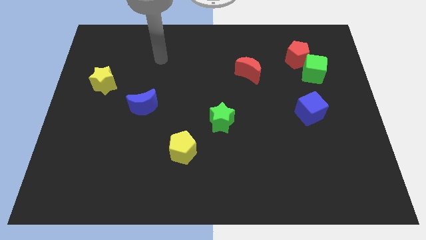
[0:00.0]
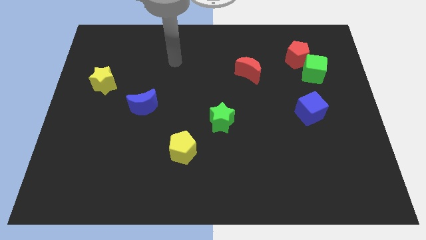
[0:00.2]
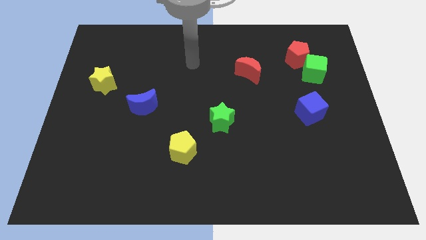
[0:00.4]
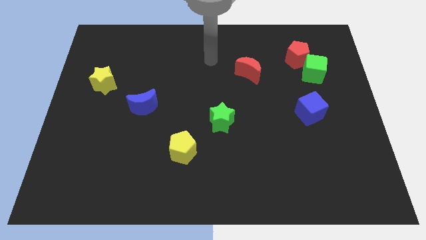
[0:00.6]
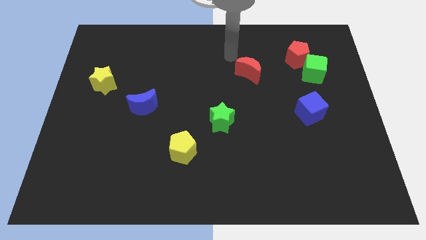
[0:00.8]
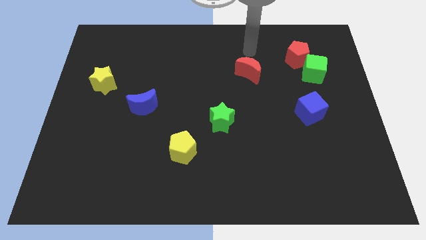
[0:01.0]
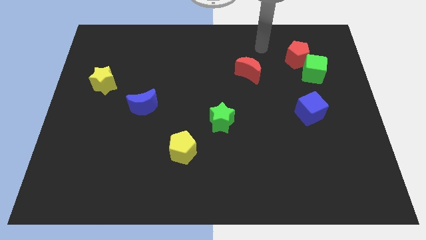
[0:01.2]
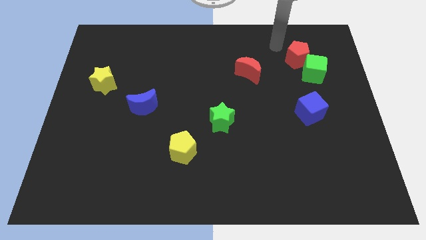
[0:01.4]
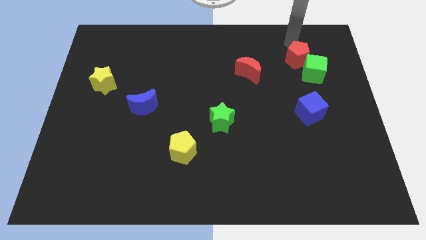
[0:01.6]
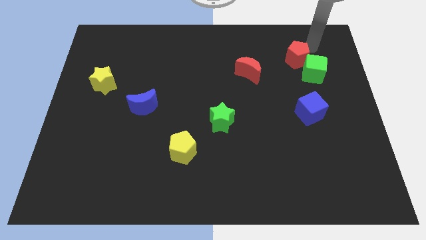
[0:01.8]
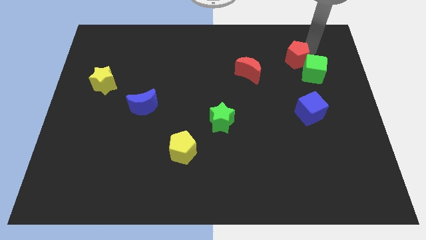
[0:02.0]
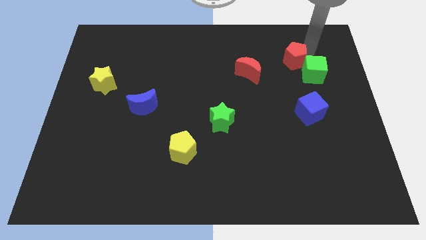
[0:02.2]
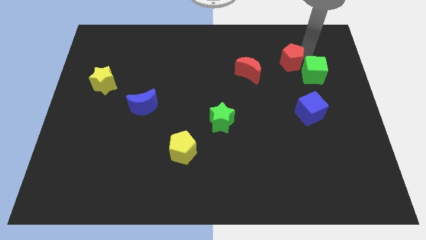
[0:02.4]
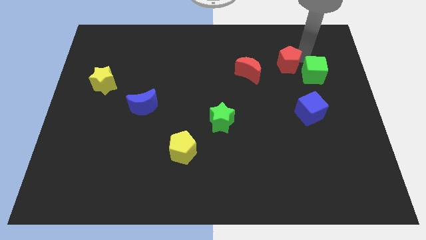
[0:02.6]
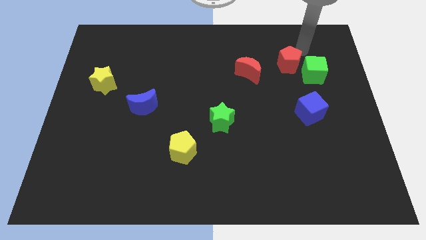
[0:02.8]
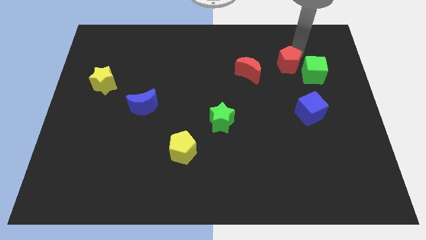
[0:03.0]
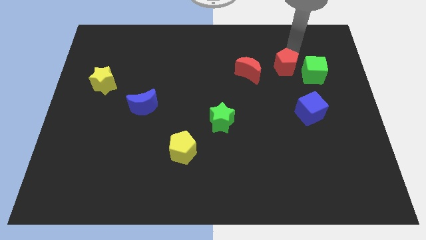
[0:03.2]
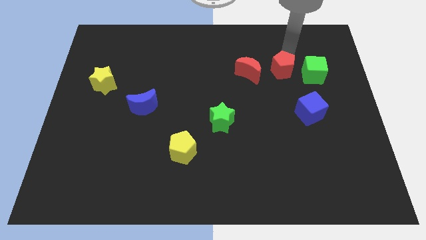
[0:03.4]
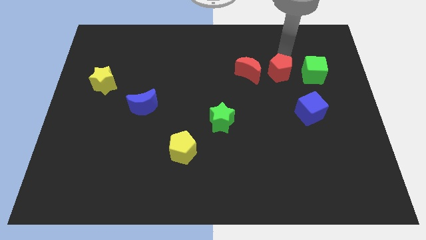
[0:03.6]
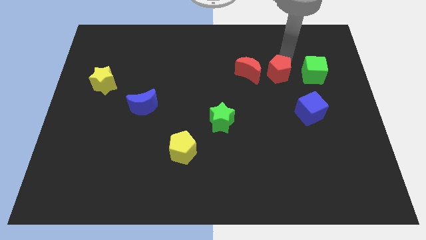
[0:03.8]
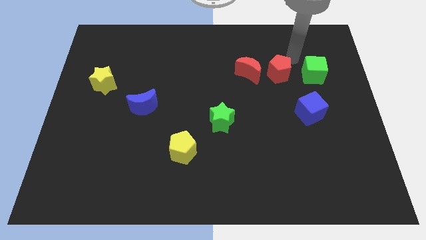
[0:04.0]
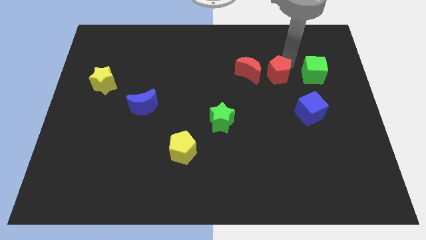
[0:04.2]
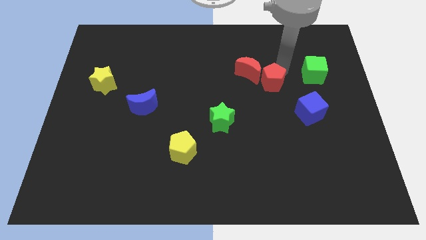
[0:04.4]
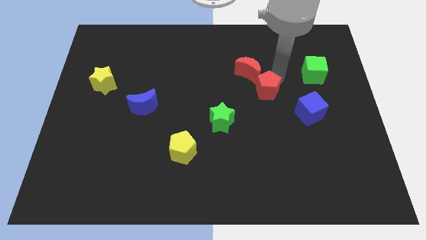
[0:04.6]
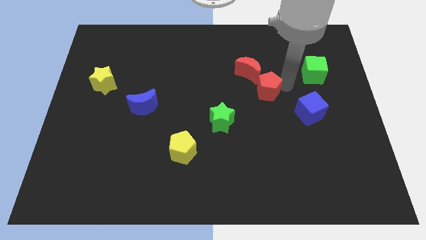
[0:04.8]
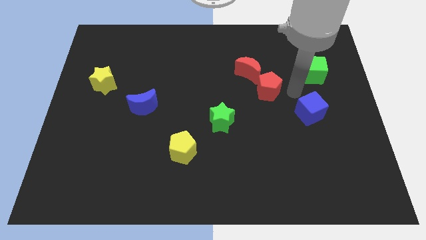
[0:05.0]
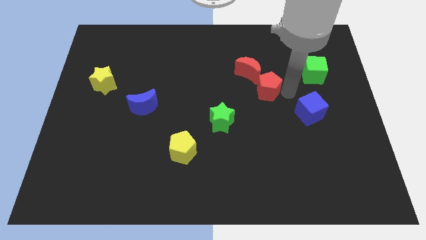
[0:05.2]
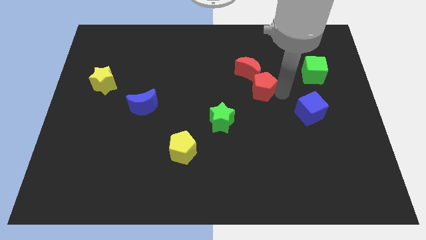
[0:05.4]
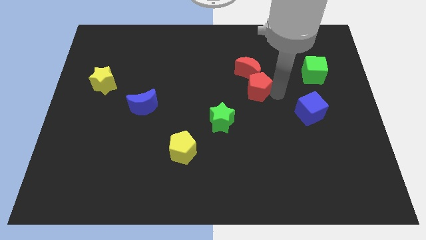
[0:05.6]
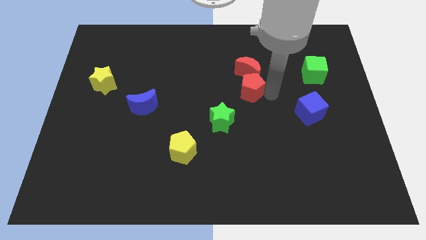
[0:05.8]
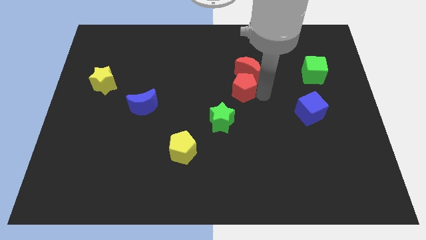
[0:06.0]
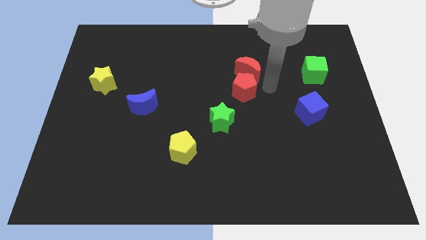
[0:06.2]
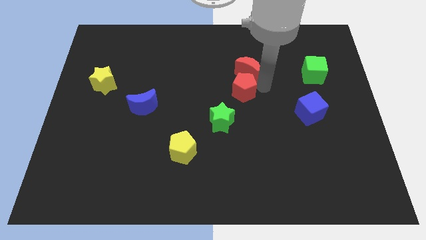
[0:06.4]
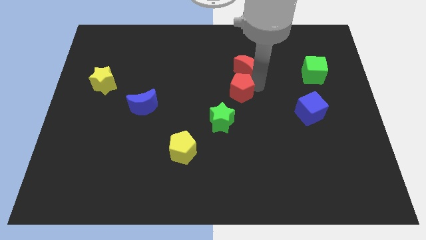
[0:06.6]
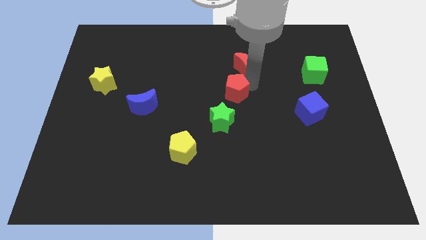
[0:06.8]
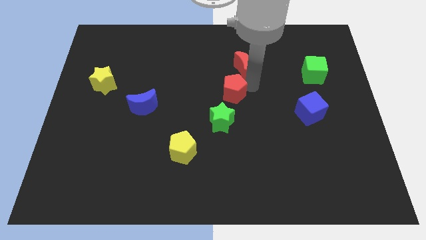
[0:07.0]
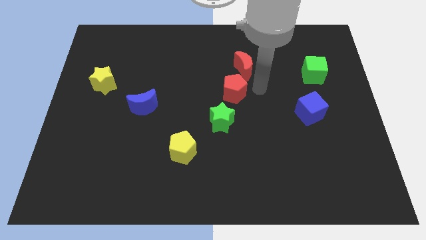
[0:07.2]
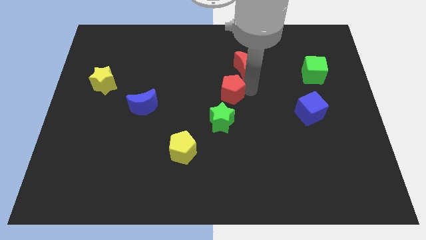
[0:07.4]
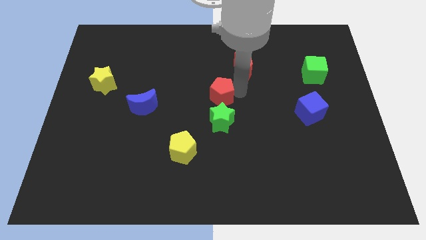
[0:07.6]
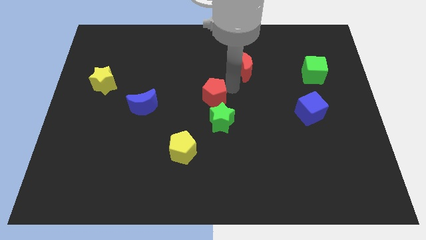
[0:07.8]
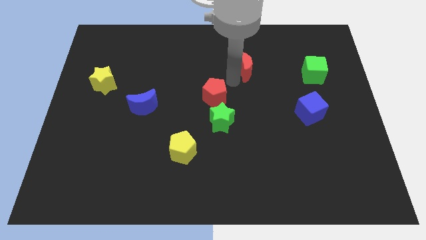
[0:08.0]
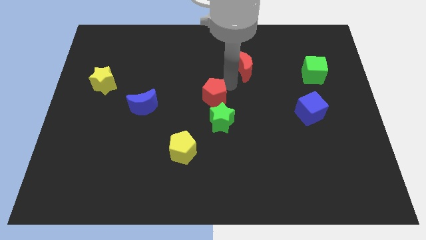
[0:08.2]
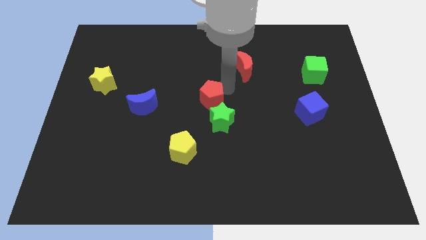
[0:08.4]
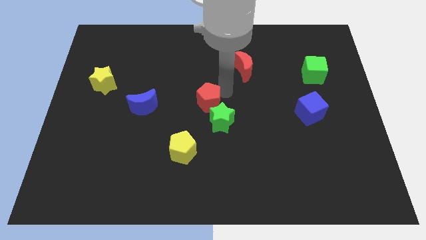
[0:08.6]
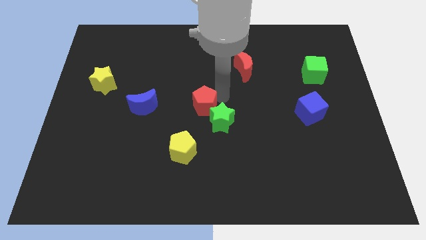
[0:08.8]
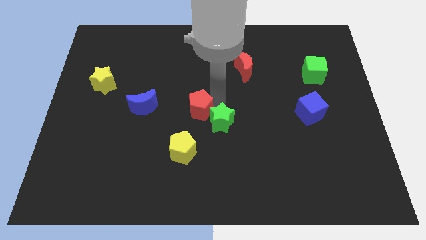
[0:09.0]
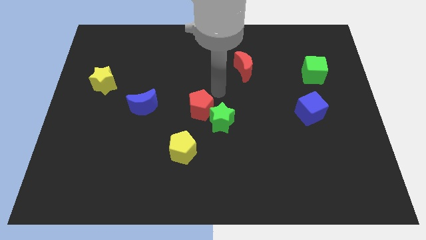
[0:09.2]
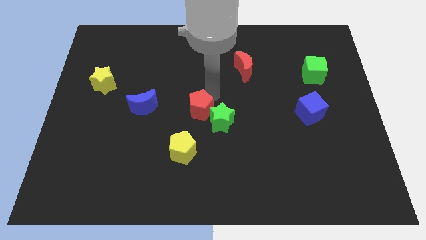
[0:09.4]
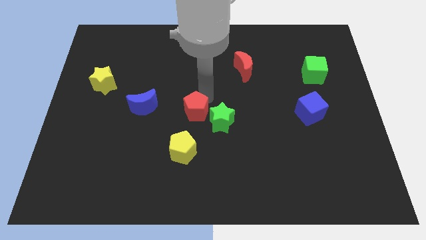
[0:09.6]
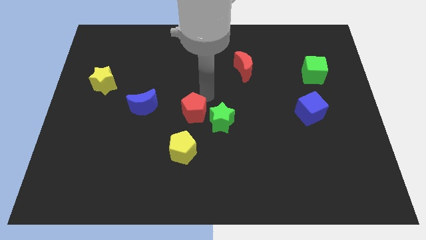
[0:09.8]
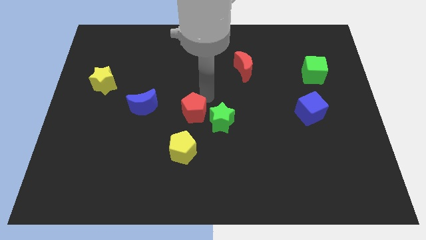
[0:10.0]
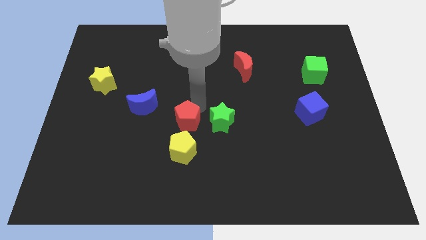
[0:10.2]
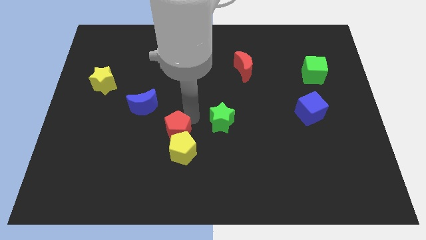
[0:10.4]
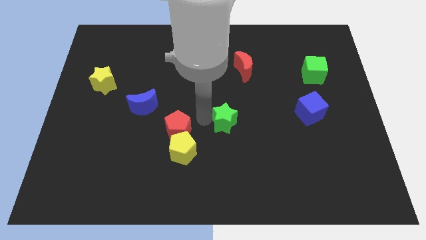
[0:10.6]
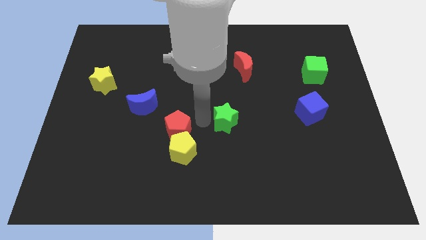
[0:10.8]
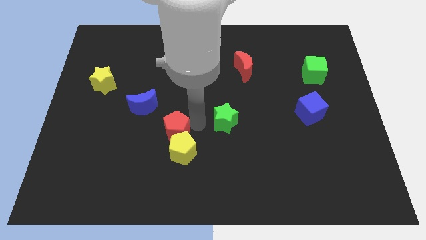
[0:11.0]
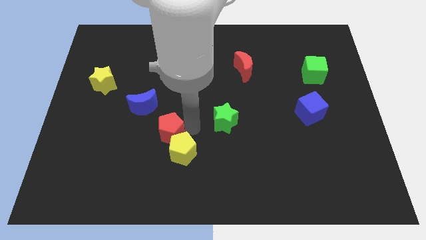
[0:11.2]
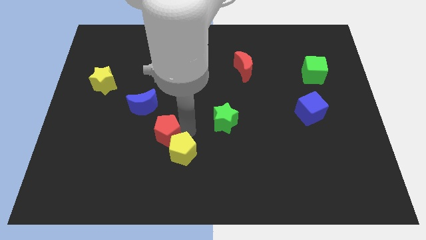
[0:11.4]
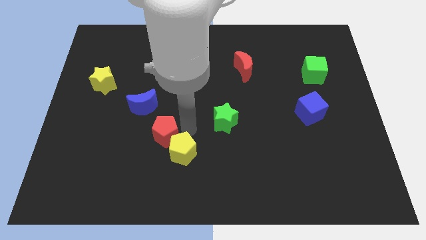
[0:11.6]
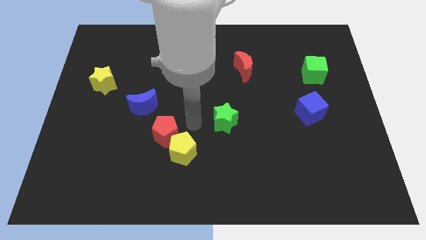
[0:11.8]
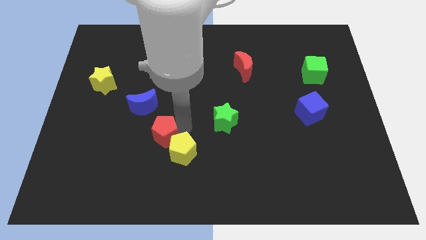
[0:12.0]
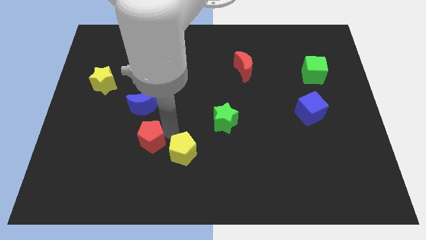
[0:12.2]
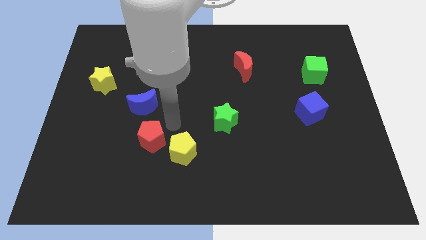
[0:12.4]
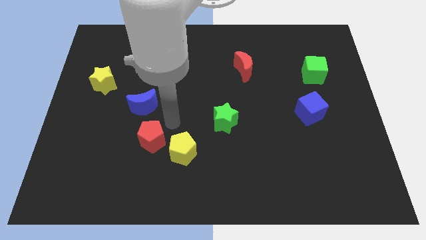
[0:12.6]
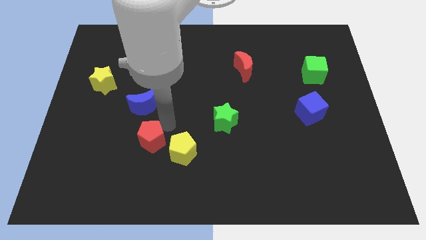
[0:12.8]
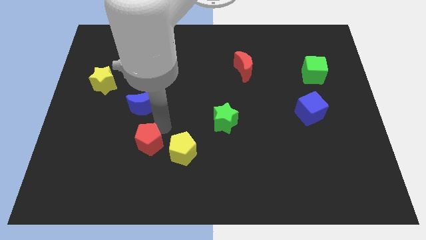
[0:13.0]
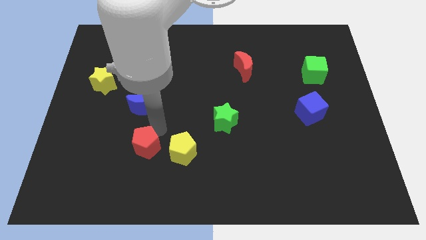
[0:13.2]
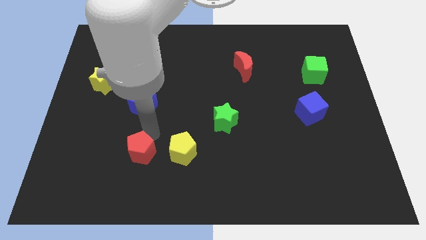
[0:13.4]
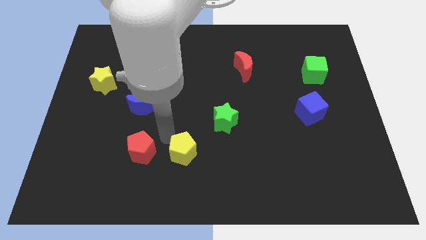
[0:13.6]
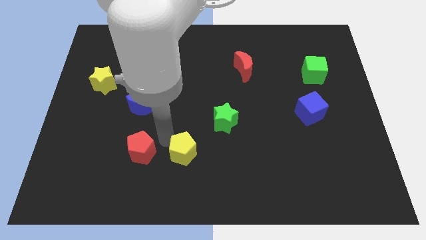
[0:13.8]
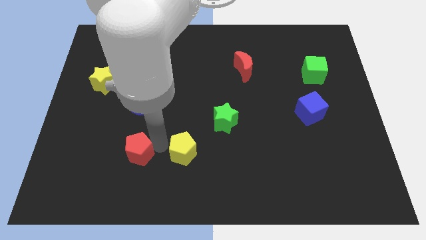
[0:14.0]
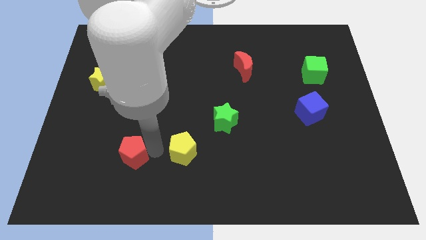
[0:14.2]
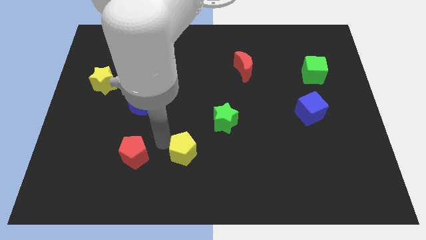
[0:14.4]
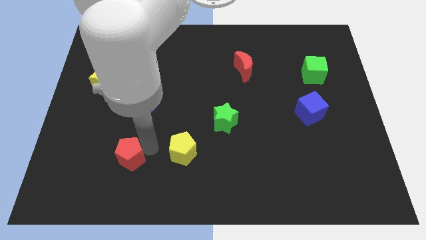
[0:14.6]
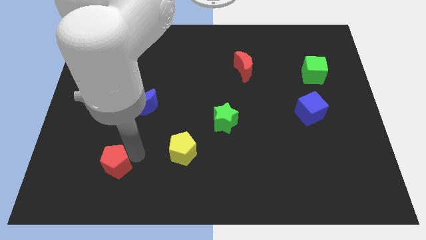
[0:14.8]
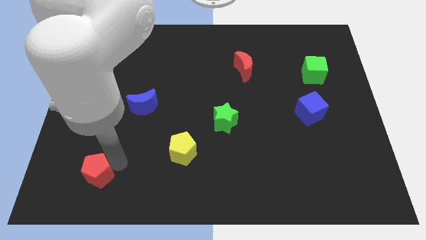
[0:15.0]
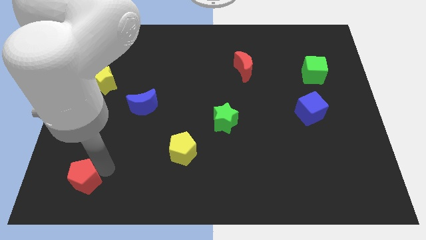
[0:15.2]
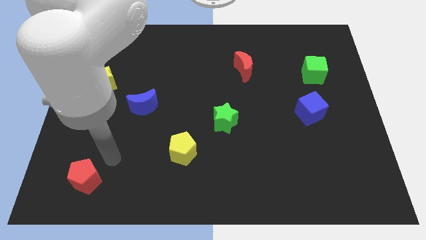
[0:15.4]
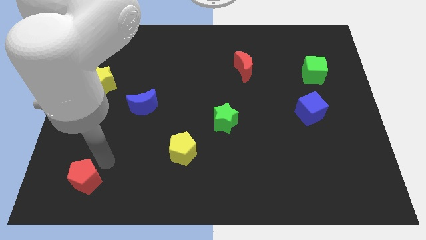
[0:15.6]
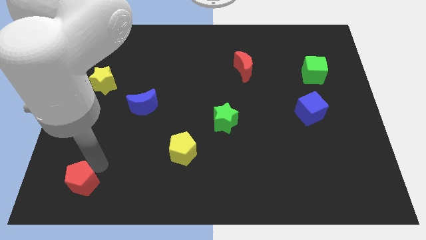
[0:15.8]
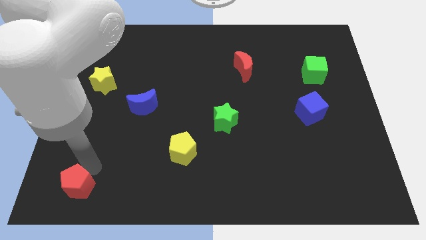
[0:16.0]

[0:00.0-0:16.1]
move the red pentagon to the bottom left of the board
